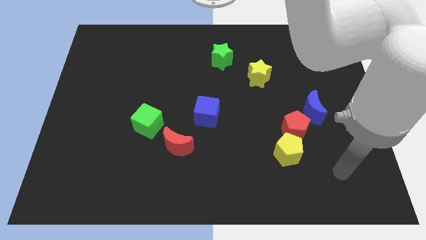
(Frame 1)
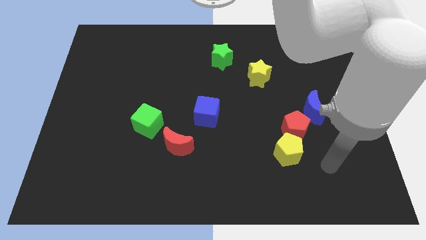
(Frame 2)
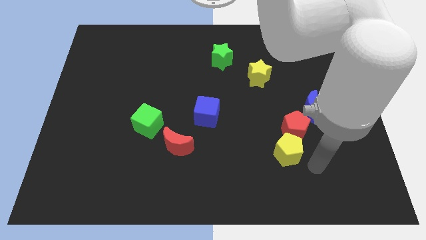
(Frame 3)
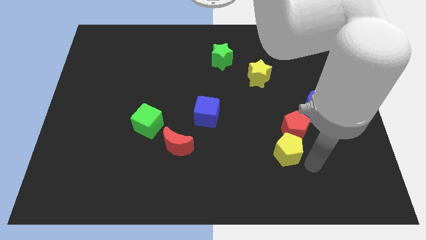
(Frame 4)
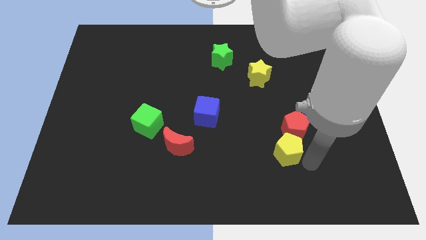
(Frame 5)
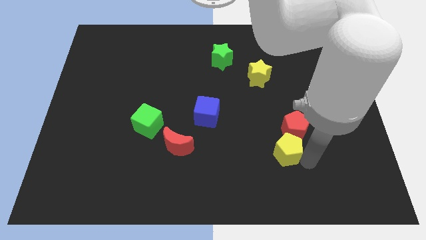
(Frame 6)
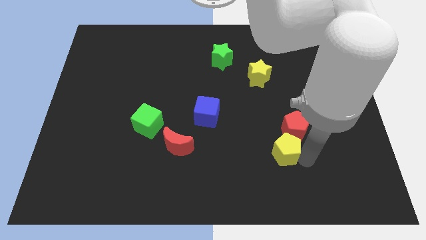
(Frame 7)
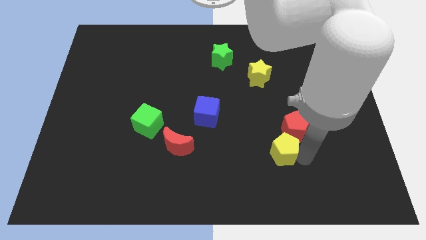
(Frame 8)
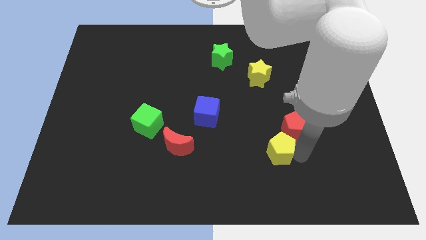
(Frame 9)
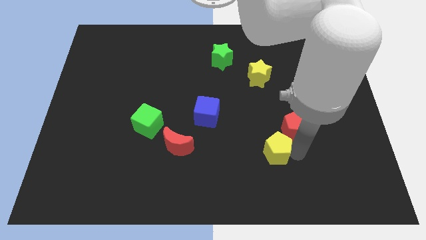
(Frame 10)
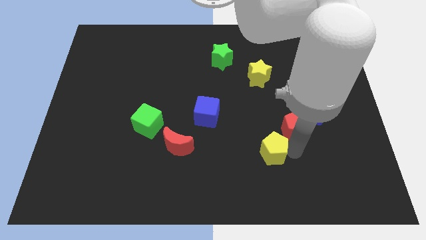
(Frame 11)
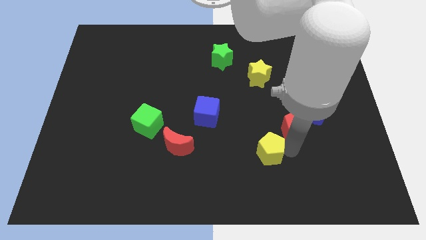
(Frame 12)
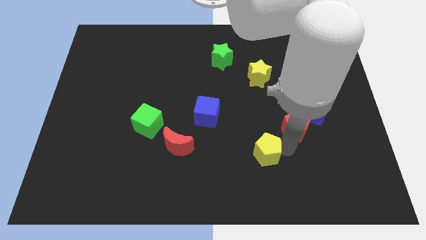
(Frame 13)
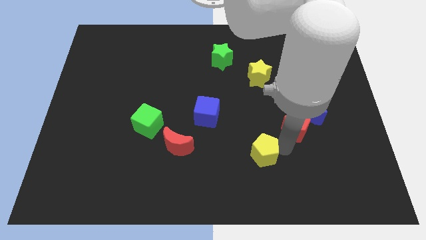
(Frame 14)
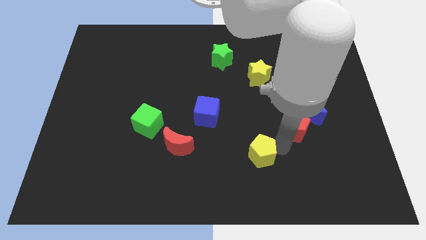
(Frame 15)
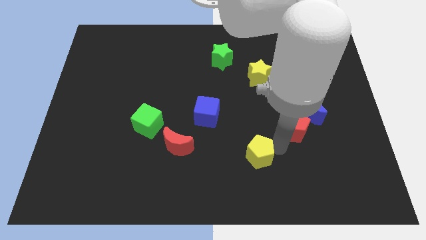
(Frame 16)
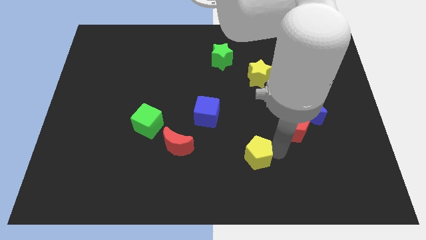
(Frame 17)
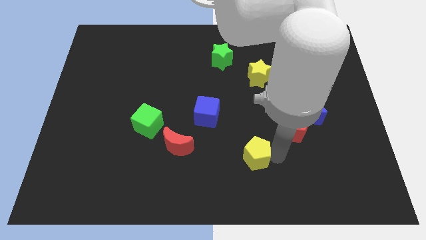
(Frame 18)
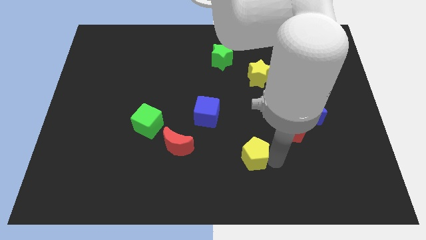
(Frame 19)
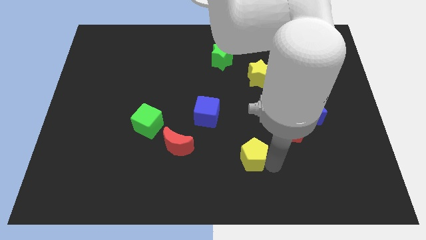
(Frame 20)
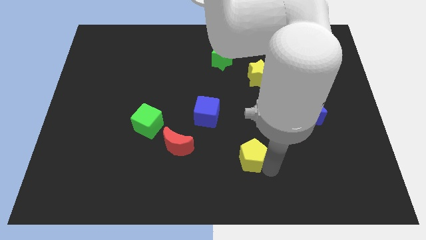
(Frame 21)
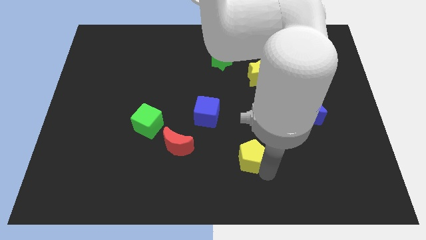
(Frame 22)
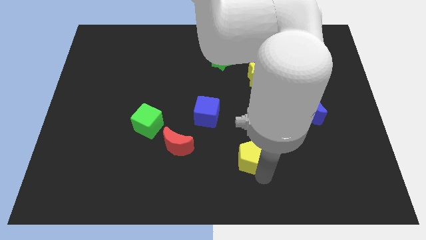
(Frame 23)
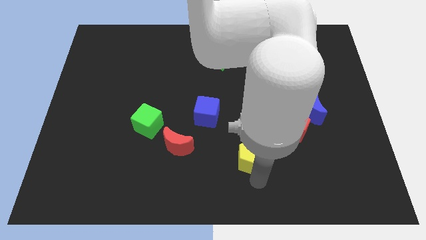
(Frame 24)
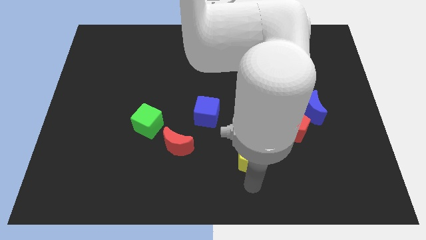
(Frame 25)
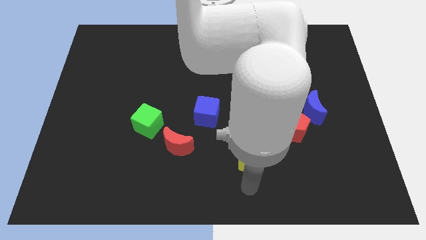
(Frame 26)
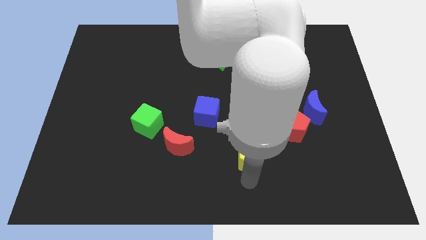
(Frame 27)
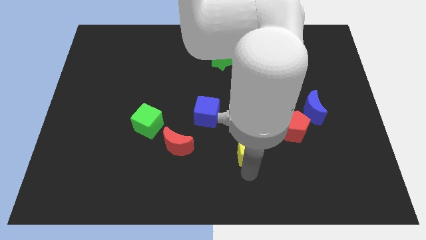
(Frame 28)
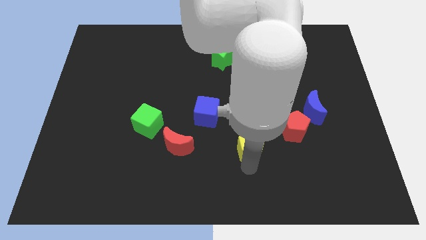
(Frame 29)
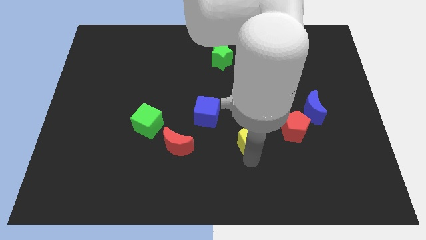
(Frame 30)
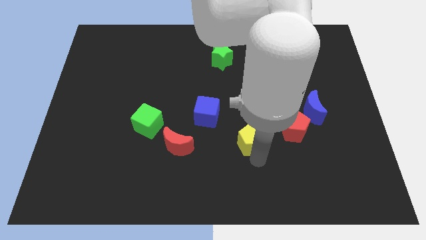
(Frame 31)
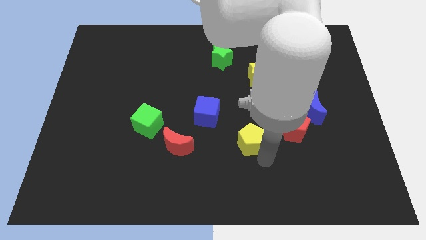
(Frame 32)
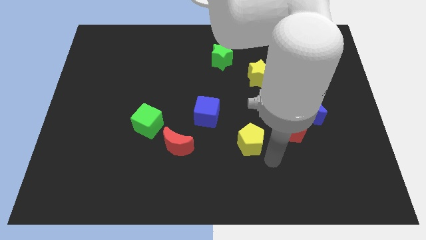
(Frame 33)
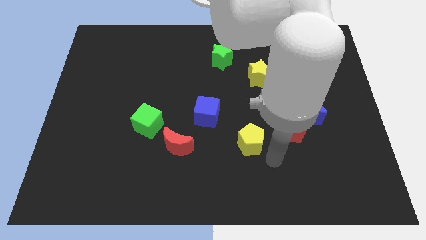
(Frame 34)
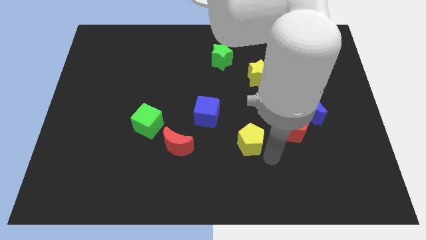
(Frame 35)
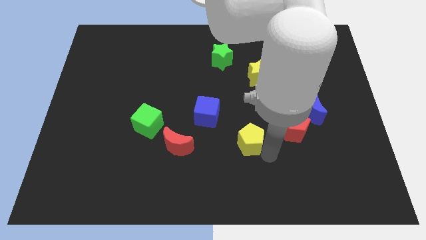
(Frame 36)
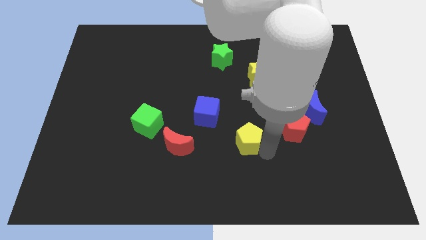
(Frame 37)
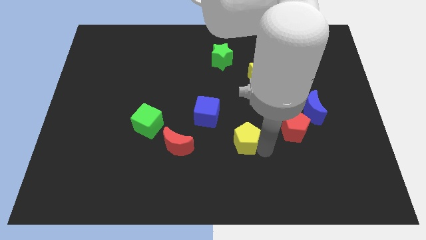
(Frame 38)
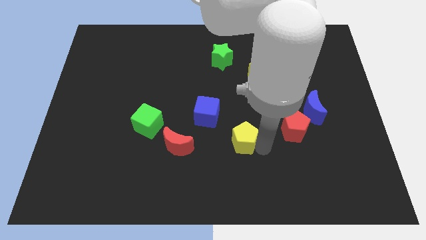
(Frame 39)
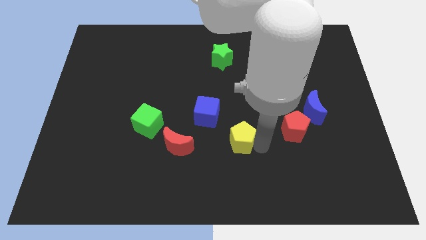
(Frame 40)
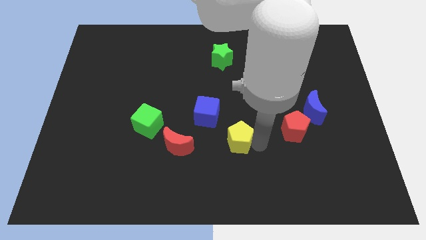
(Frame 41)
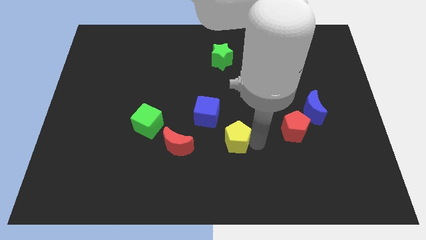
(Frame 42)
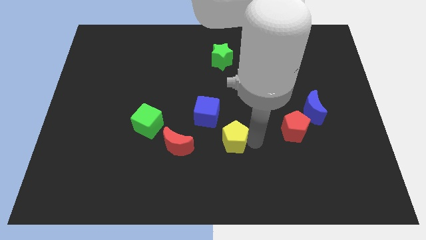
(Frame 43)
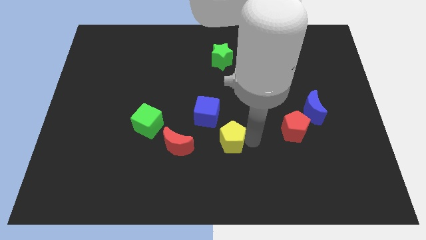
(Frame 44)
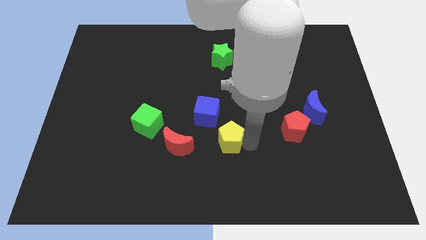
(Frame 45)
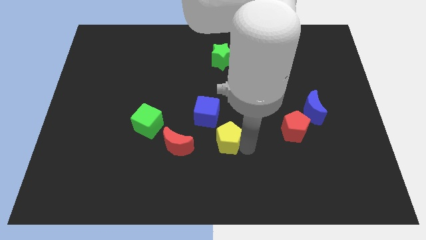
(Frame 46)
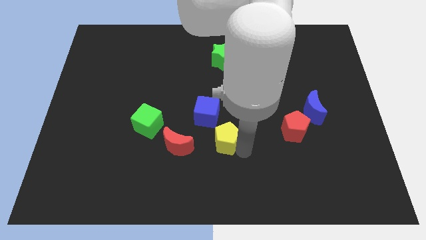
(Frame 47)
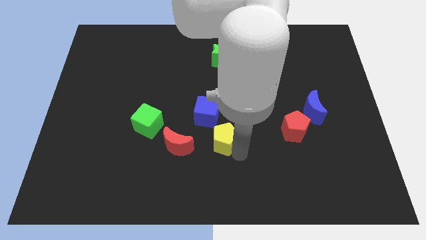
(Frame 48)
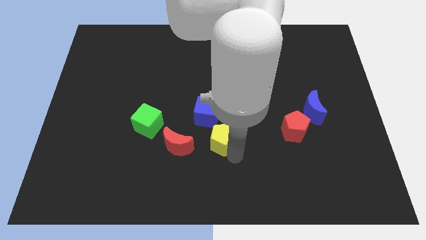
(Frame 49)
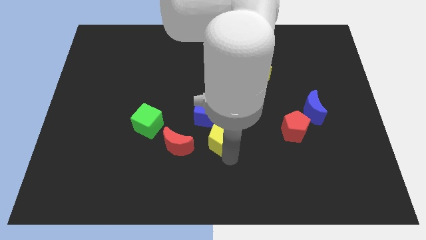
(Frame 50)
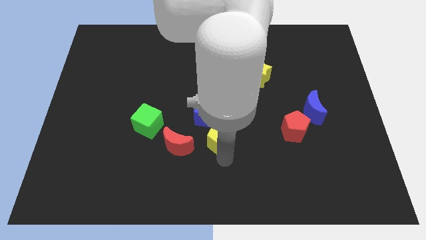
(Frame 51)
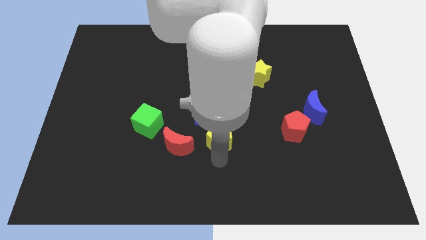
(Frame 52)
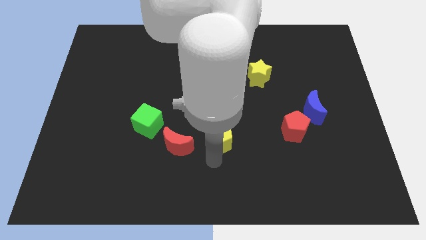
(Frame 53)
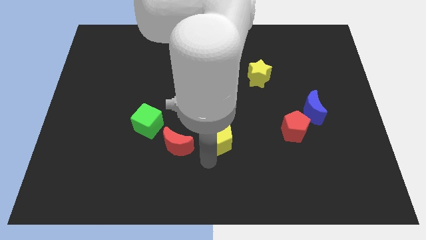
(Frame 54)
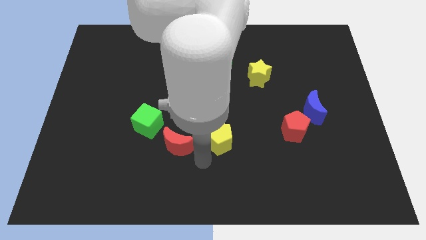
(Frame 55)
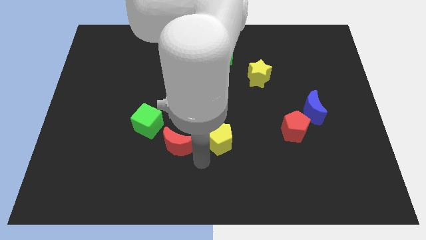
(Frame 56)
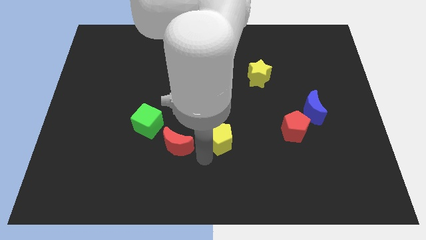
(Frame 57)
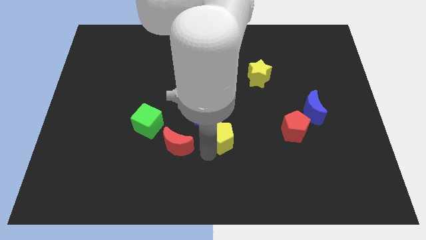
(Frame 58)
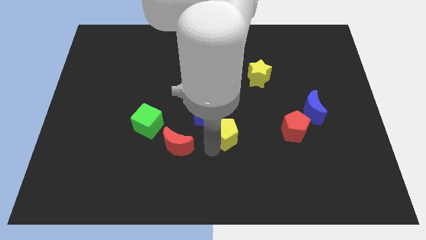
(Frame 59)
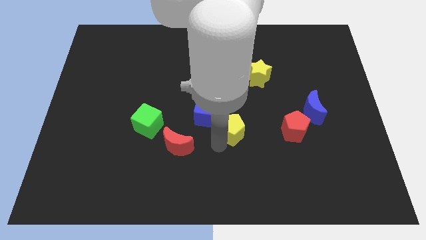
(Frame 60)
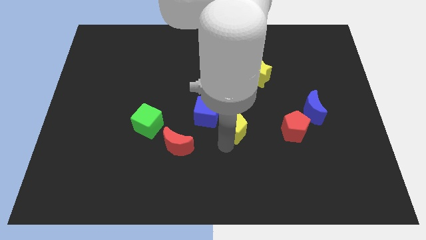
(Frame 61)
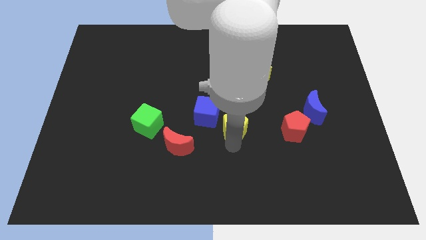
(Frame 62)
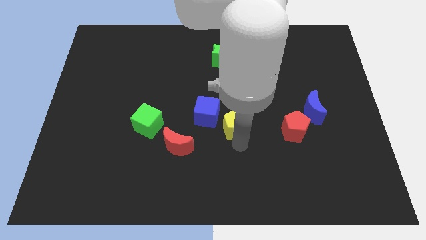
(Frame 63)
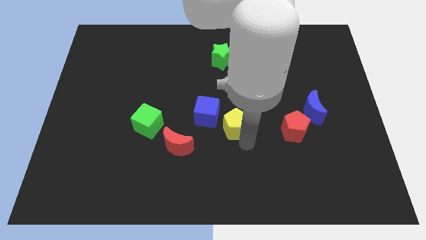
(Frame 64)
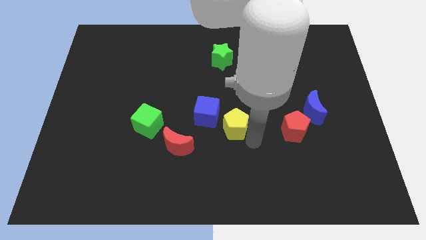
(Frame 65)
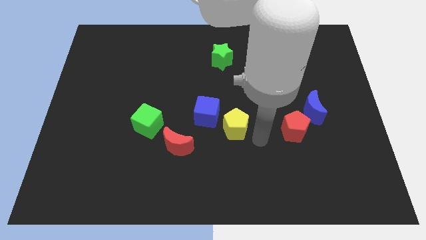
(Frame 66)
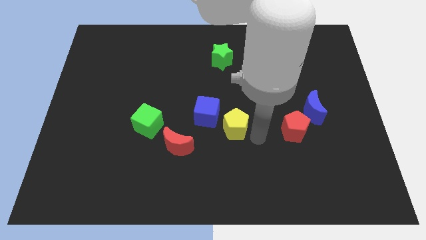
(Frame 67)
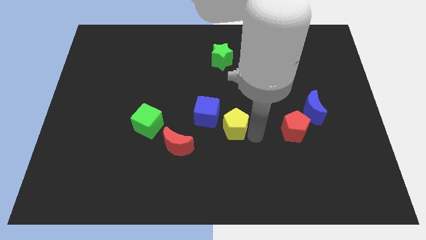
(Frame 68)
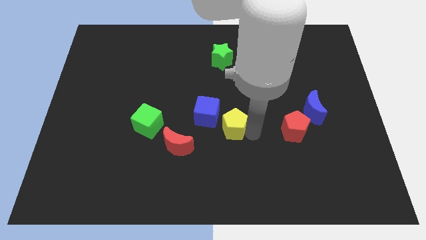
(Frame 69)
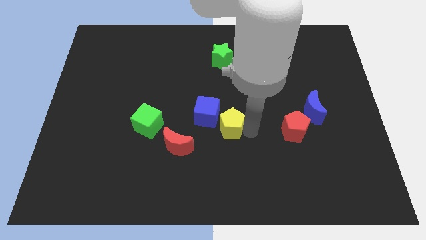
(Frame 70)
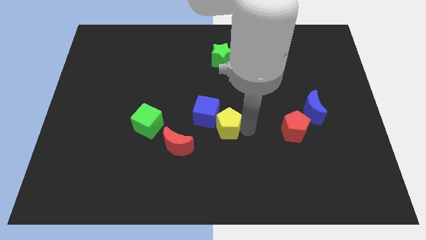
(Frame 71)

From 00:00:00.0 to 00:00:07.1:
put the yellow pentagon towards the blue cube

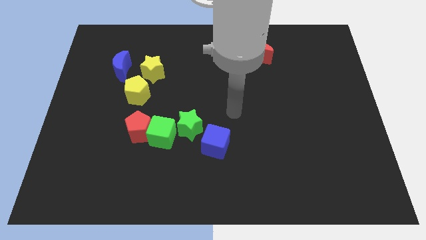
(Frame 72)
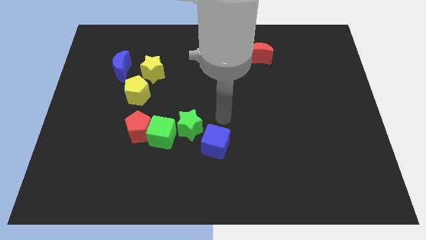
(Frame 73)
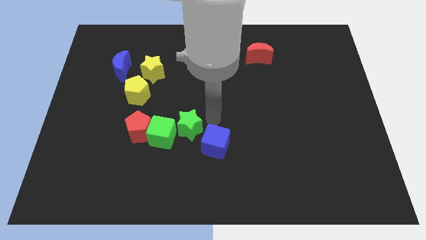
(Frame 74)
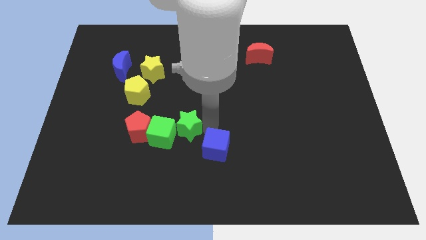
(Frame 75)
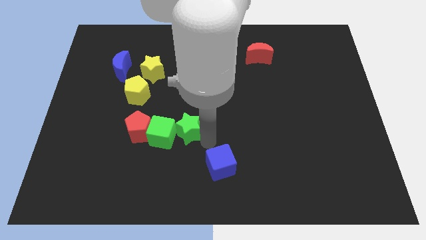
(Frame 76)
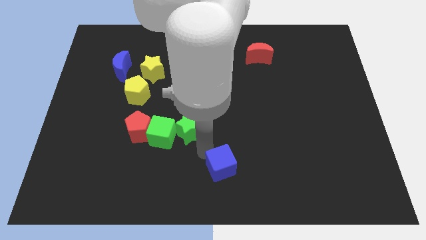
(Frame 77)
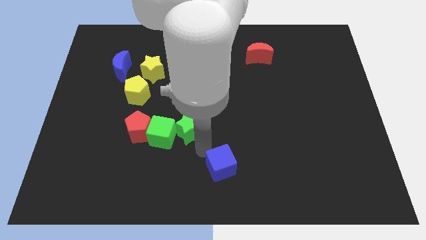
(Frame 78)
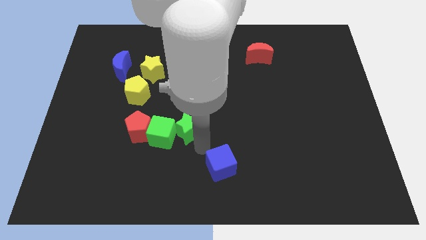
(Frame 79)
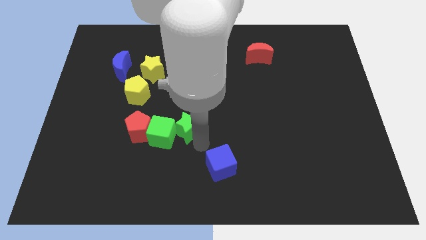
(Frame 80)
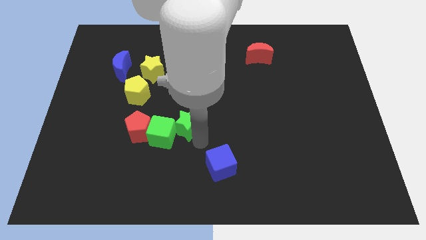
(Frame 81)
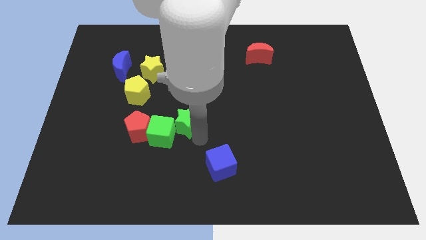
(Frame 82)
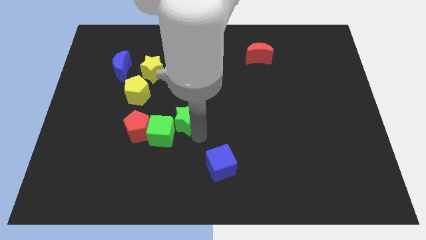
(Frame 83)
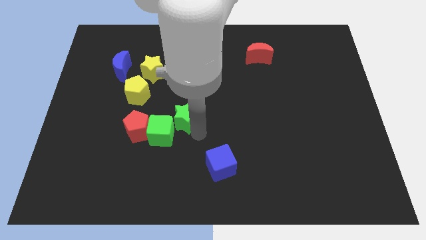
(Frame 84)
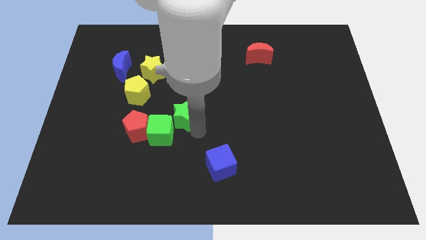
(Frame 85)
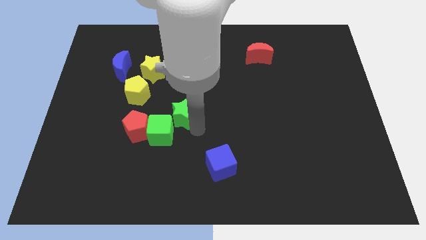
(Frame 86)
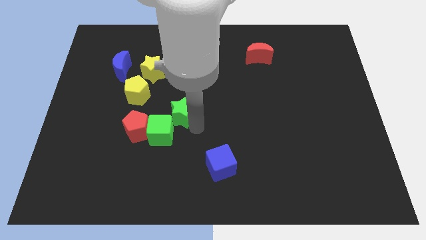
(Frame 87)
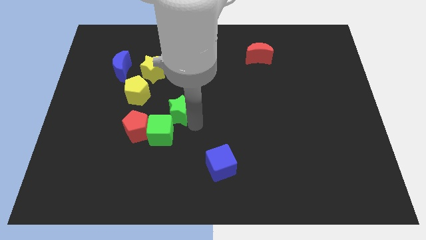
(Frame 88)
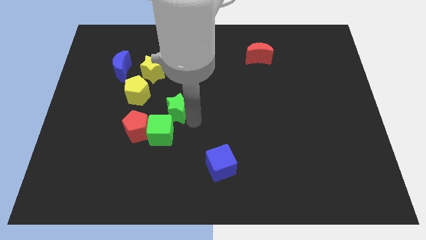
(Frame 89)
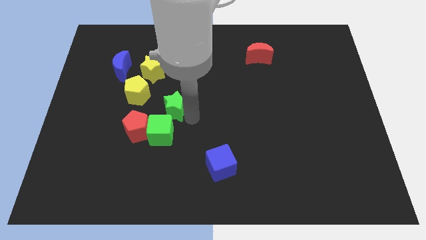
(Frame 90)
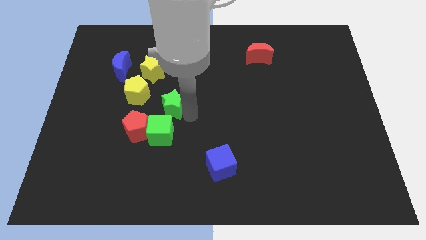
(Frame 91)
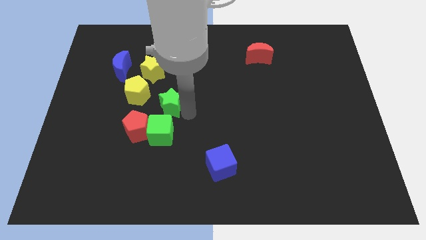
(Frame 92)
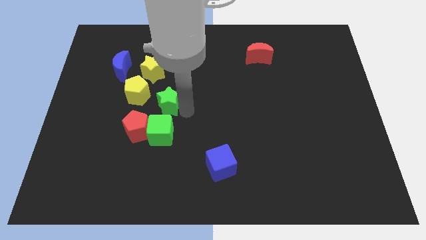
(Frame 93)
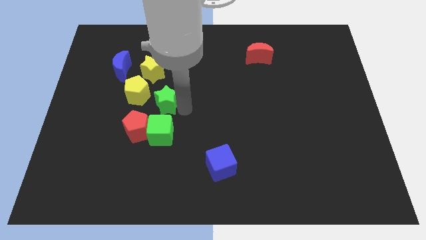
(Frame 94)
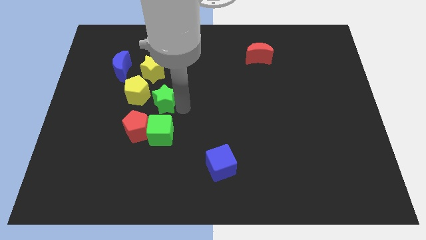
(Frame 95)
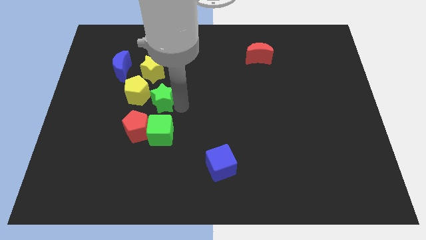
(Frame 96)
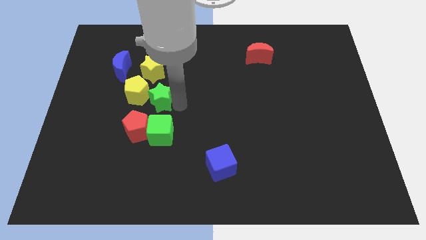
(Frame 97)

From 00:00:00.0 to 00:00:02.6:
slide the green star to the yellow pentagon
